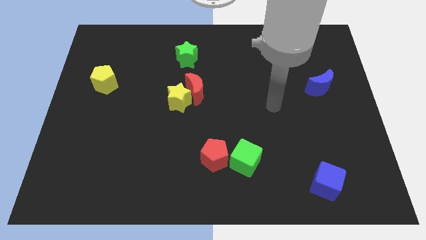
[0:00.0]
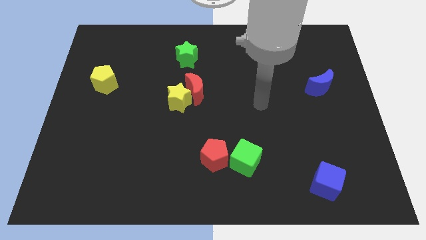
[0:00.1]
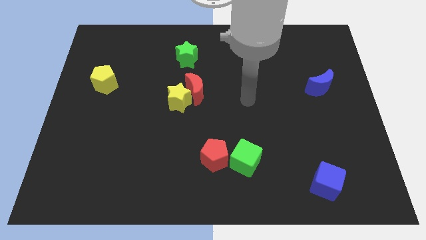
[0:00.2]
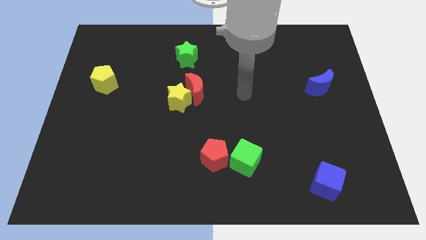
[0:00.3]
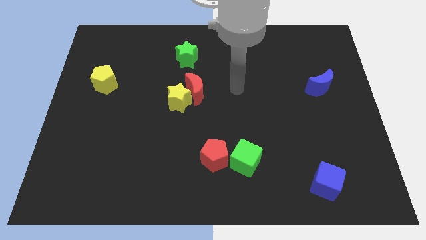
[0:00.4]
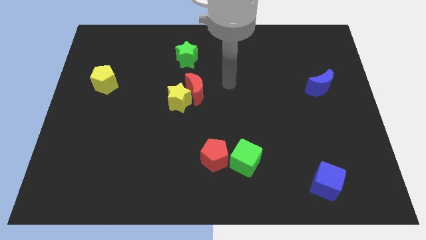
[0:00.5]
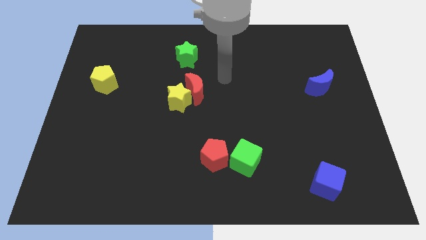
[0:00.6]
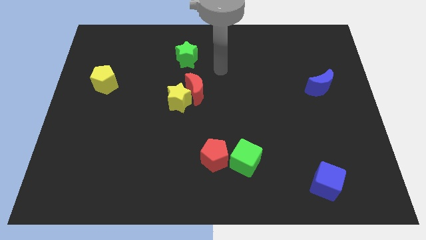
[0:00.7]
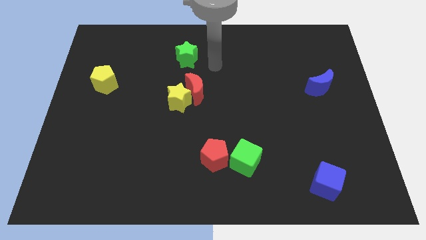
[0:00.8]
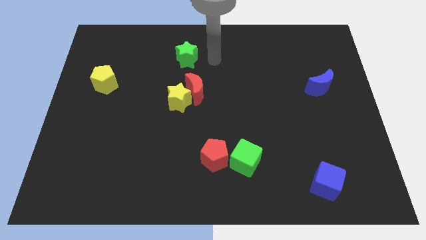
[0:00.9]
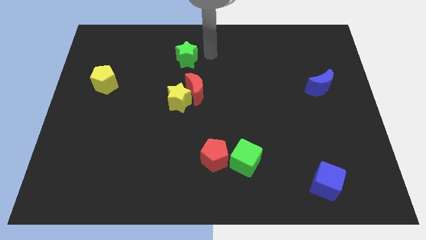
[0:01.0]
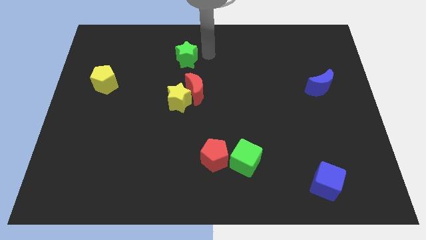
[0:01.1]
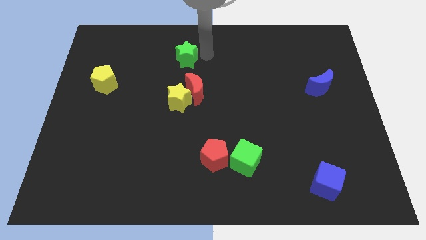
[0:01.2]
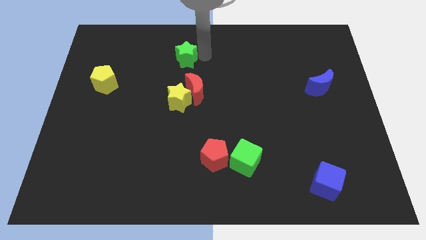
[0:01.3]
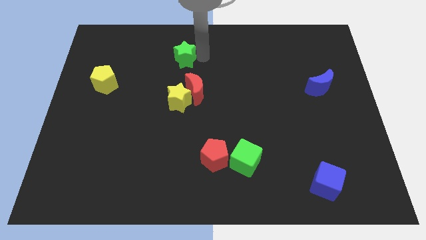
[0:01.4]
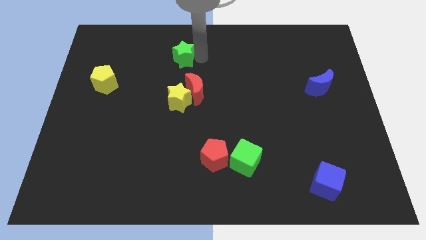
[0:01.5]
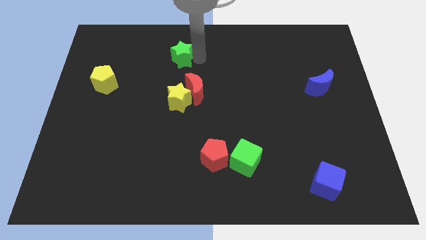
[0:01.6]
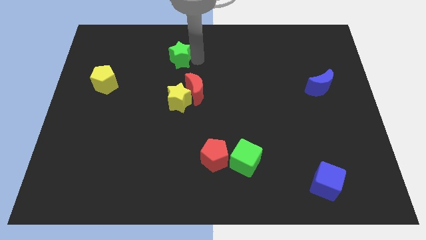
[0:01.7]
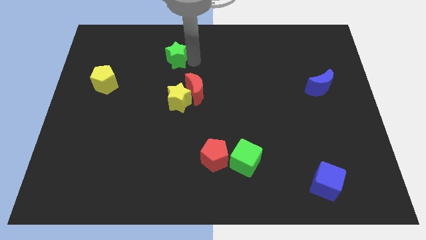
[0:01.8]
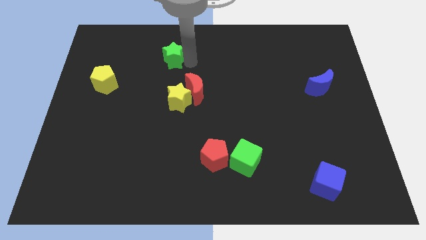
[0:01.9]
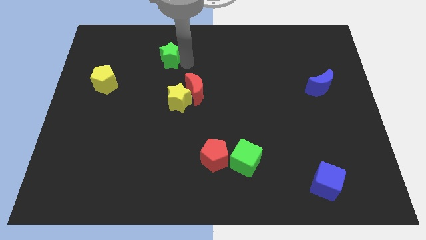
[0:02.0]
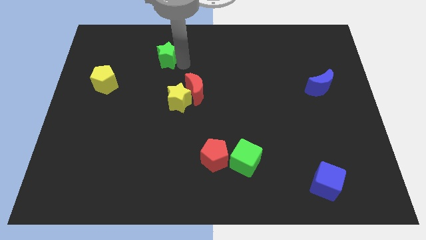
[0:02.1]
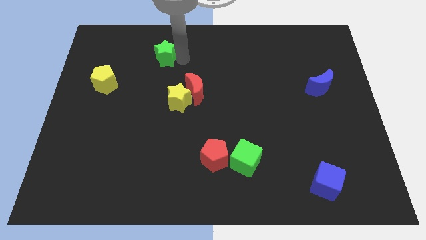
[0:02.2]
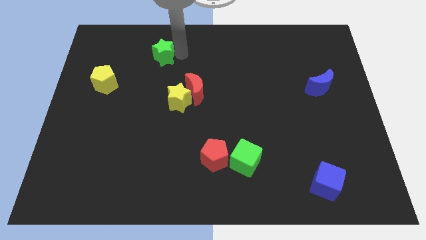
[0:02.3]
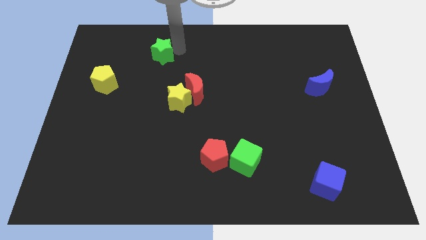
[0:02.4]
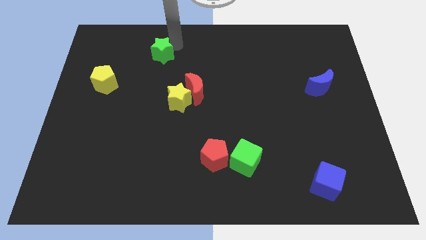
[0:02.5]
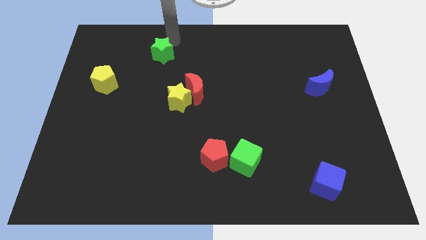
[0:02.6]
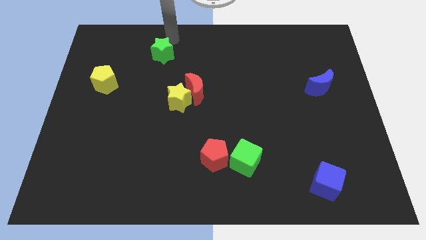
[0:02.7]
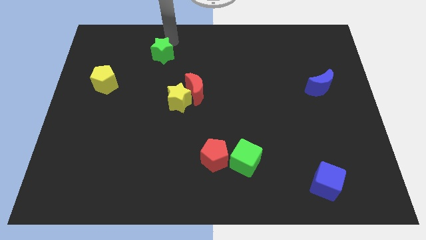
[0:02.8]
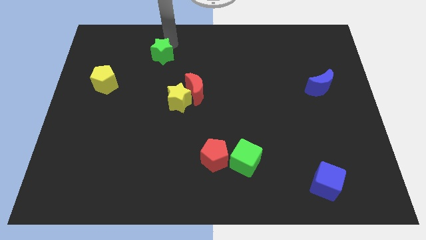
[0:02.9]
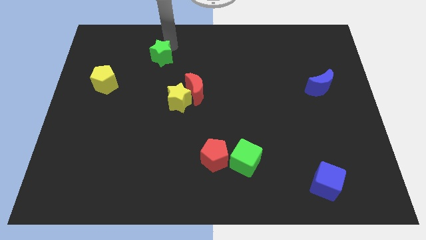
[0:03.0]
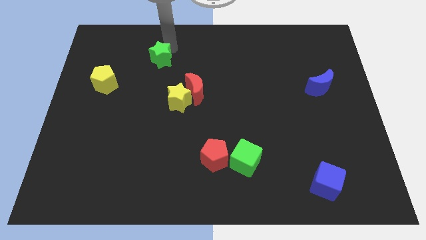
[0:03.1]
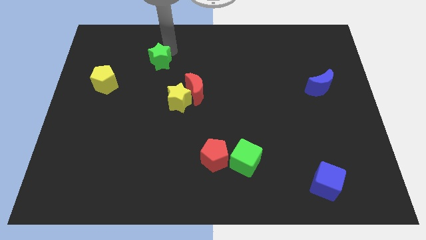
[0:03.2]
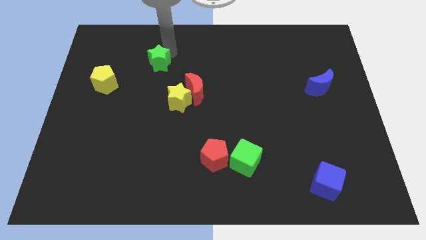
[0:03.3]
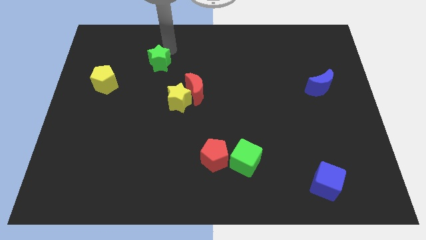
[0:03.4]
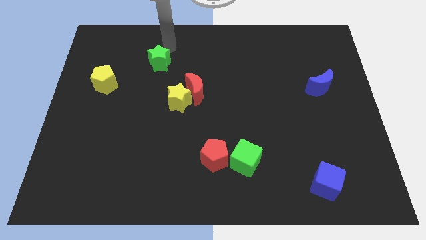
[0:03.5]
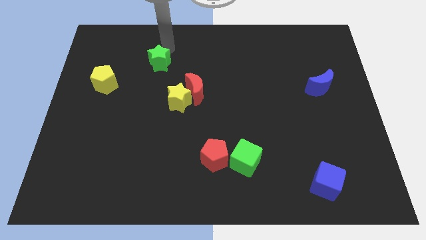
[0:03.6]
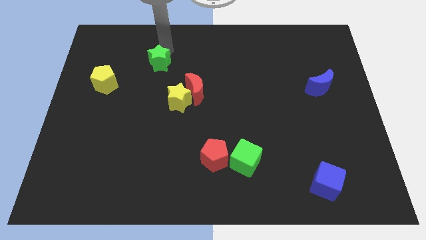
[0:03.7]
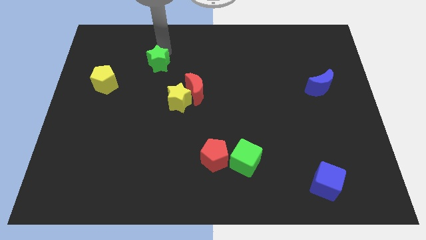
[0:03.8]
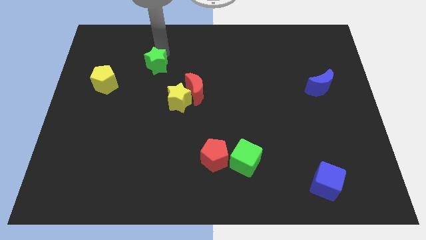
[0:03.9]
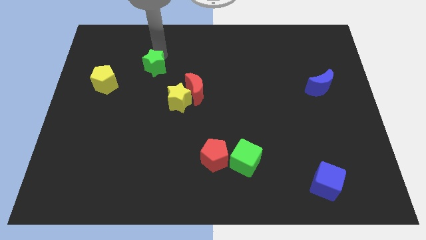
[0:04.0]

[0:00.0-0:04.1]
slightly push the green star diagonally downwards and left

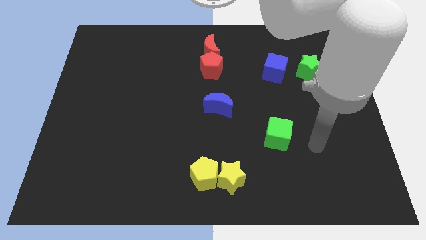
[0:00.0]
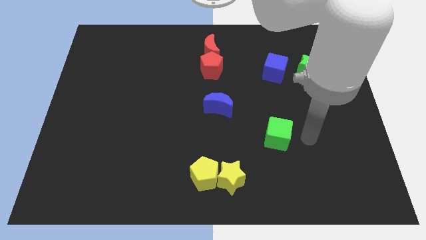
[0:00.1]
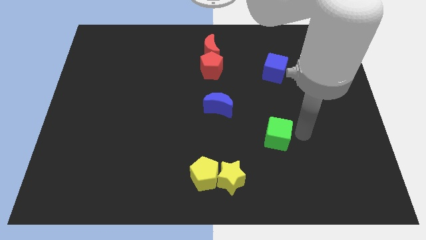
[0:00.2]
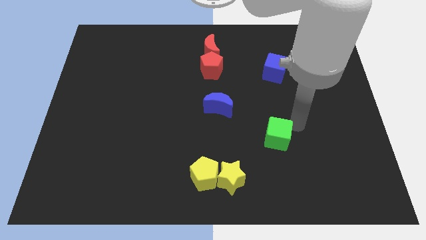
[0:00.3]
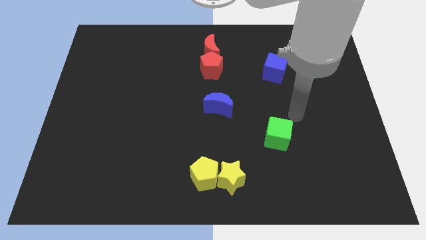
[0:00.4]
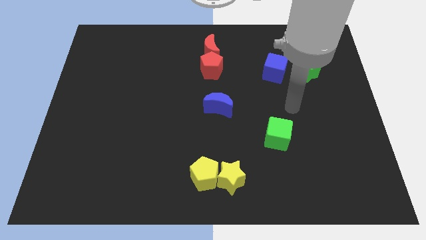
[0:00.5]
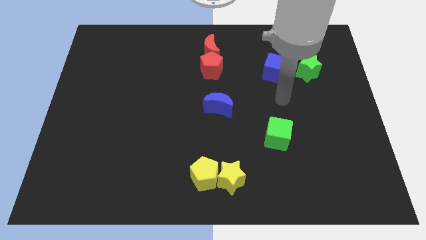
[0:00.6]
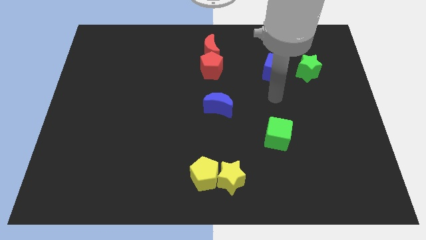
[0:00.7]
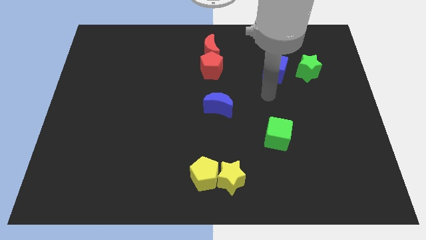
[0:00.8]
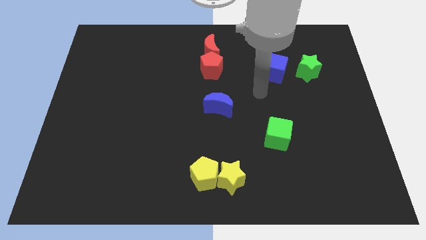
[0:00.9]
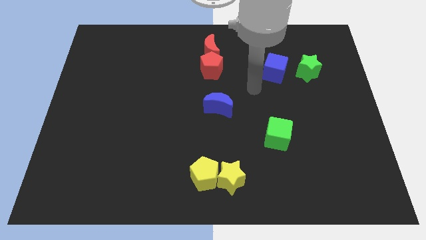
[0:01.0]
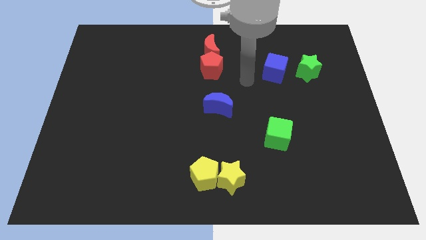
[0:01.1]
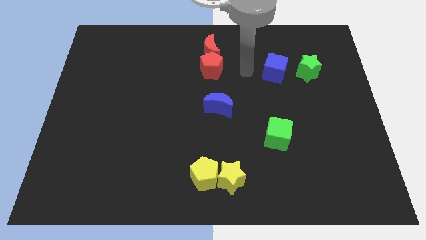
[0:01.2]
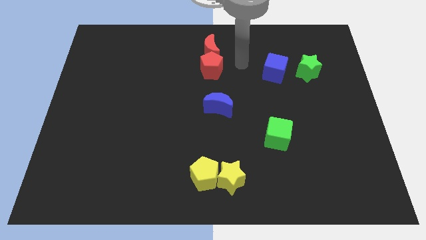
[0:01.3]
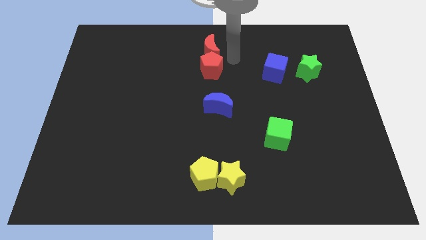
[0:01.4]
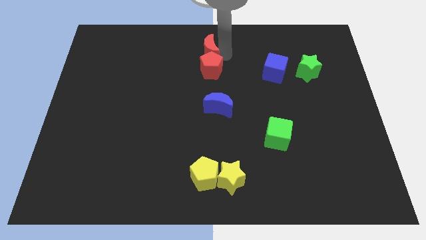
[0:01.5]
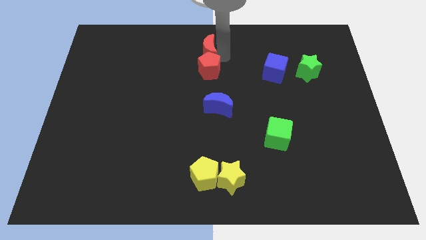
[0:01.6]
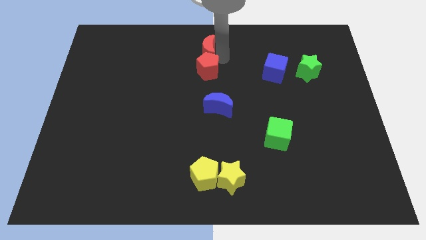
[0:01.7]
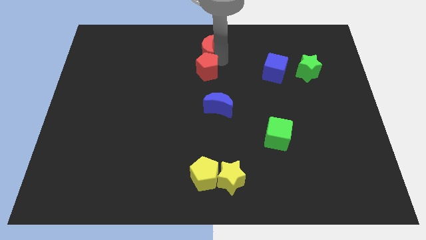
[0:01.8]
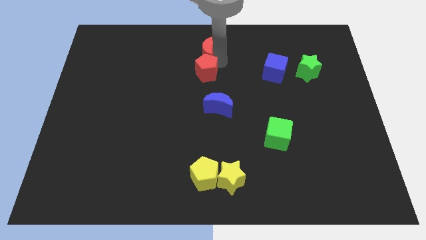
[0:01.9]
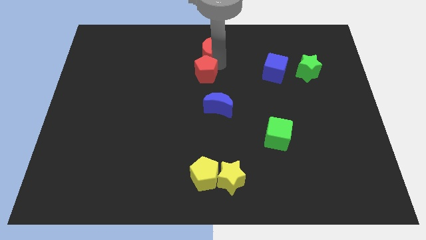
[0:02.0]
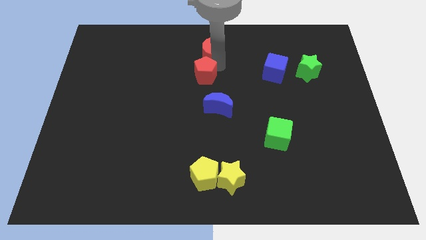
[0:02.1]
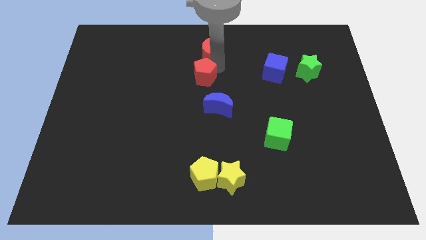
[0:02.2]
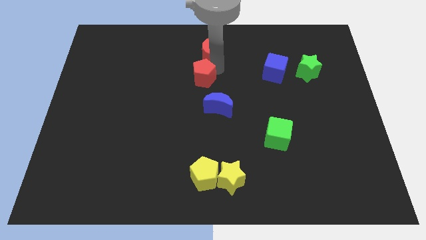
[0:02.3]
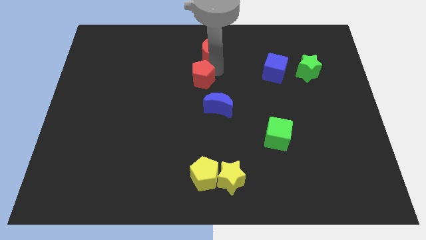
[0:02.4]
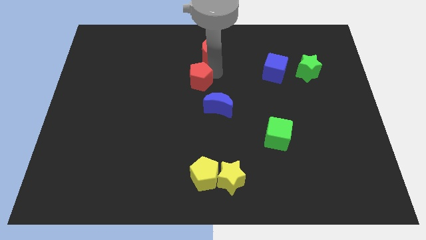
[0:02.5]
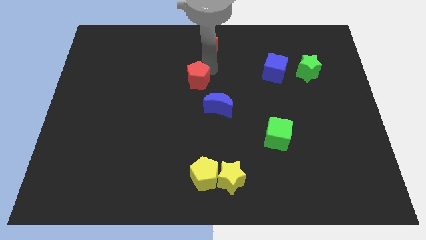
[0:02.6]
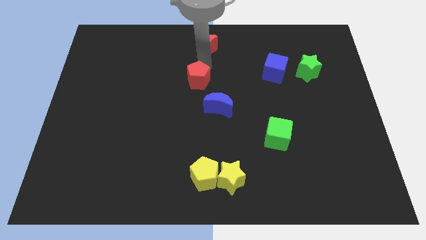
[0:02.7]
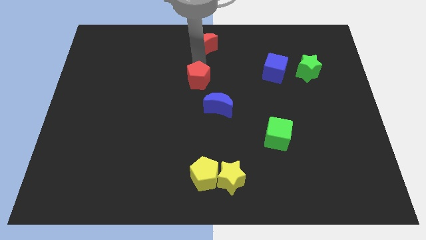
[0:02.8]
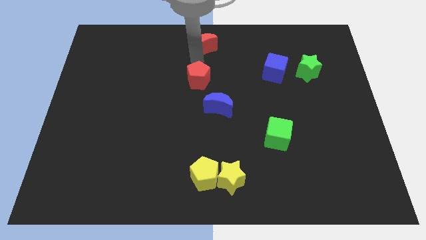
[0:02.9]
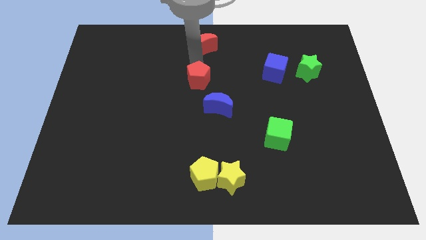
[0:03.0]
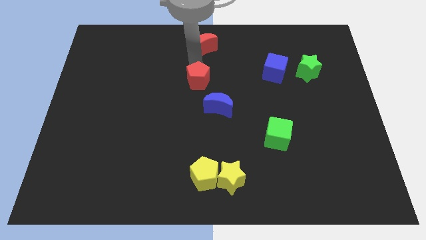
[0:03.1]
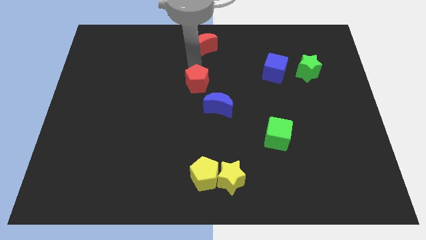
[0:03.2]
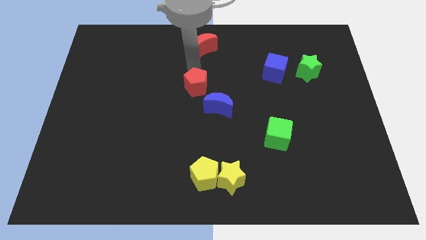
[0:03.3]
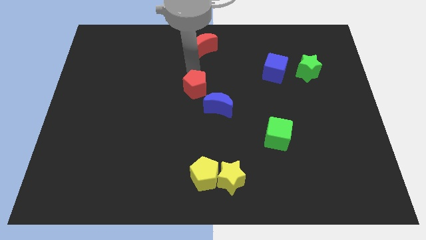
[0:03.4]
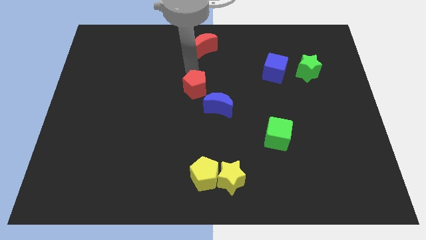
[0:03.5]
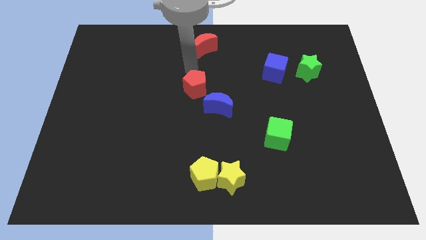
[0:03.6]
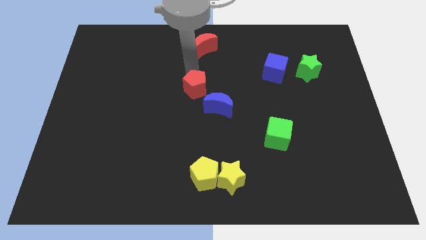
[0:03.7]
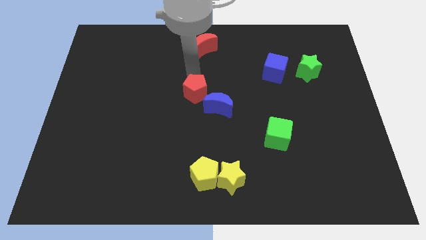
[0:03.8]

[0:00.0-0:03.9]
slide the red pentagon a bit downwards

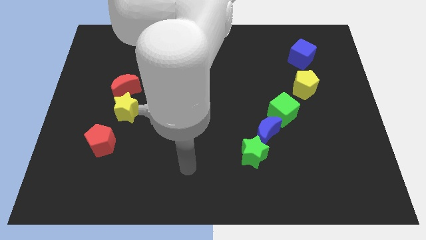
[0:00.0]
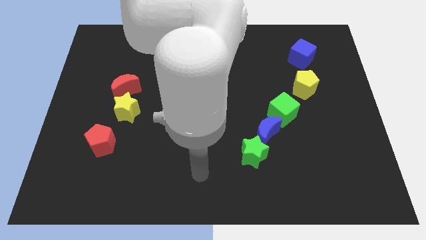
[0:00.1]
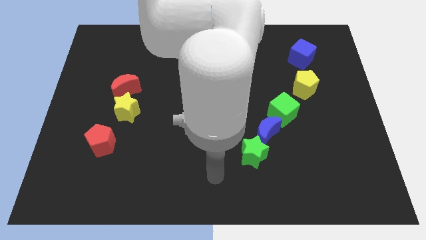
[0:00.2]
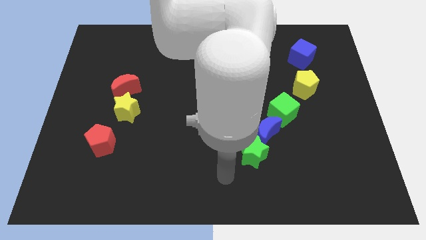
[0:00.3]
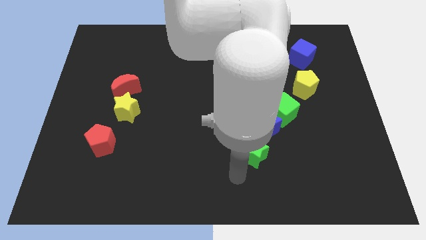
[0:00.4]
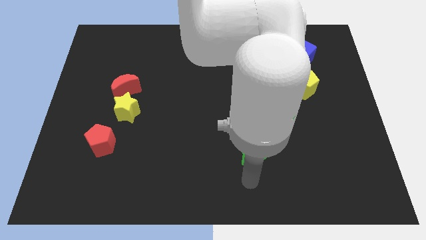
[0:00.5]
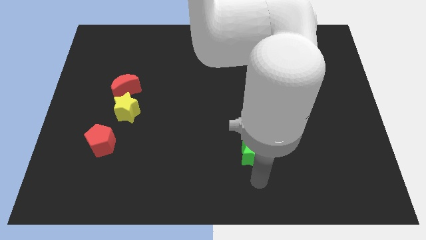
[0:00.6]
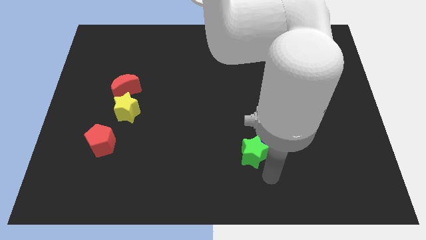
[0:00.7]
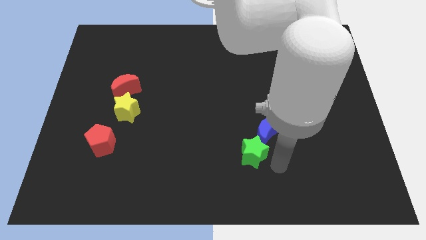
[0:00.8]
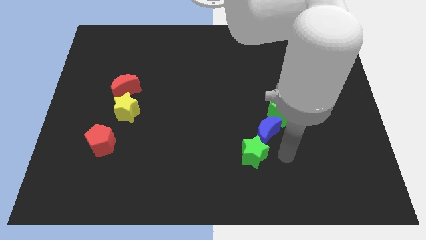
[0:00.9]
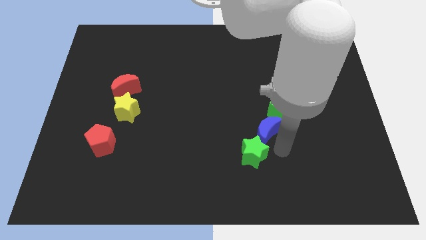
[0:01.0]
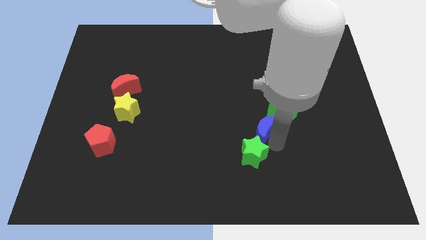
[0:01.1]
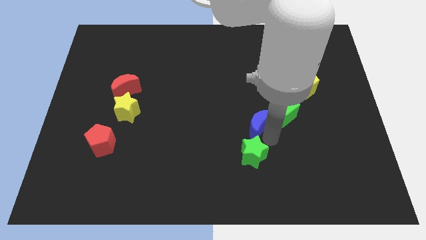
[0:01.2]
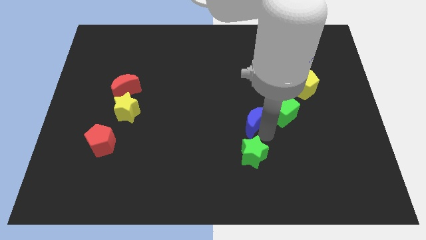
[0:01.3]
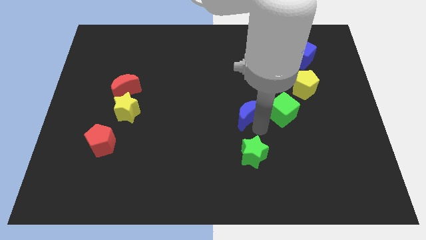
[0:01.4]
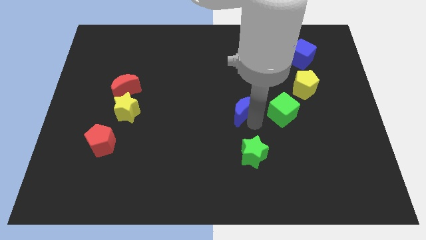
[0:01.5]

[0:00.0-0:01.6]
slightly push the blue moon upwards and to the left diagonally
